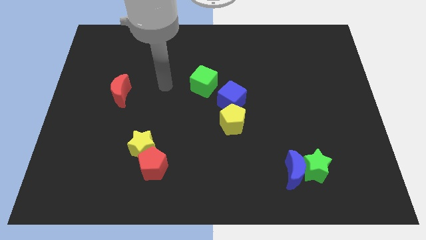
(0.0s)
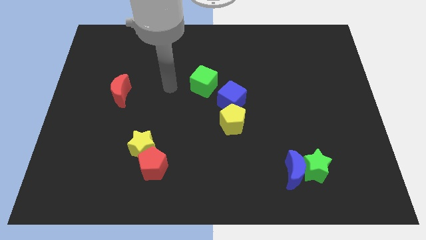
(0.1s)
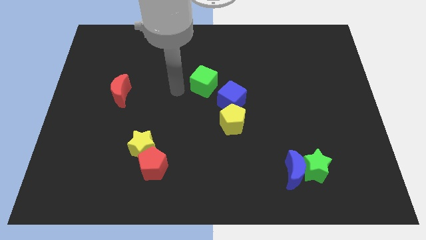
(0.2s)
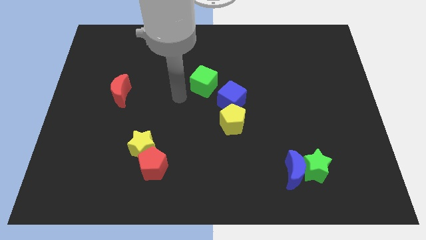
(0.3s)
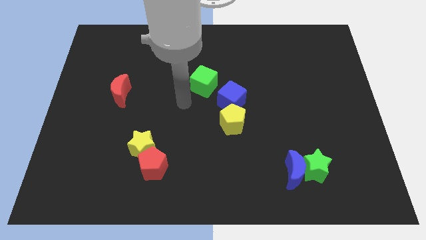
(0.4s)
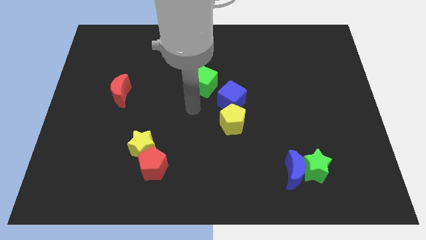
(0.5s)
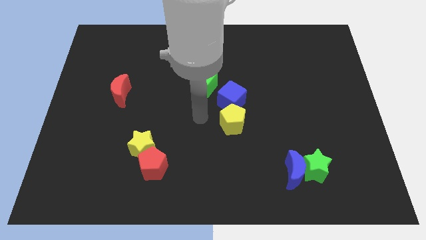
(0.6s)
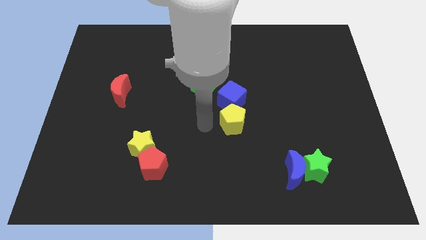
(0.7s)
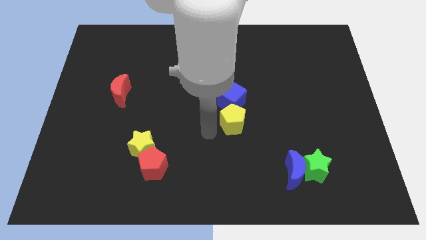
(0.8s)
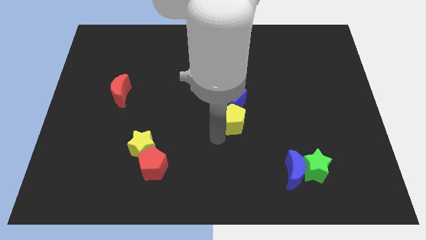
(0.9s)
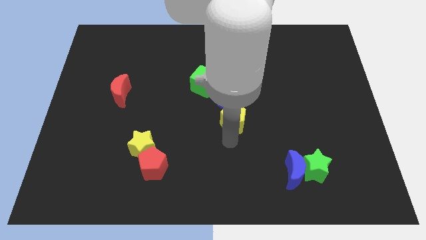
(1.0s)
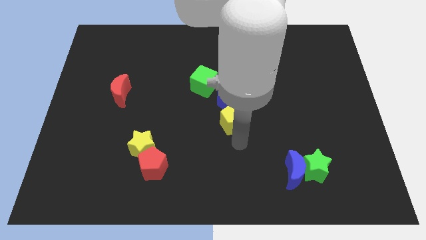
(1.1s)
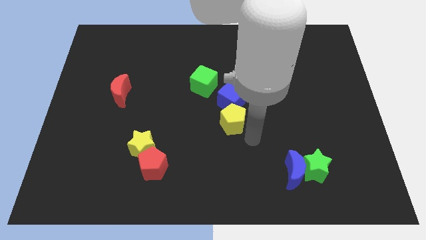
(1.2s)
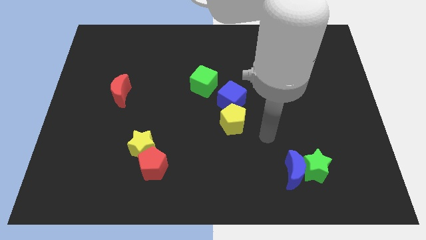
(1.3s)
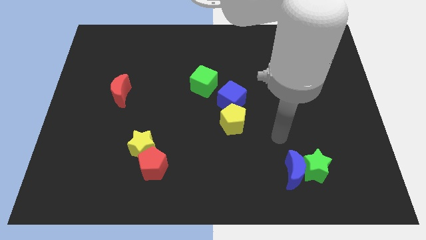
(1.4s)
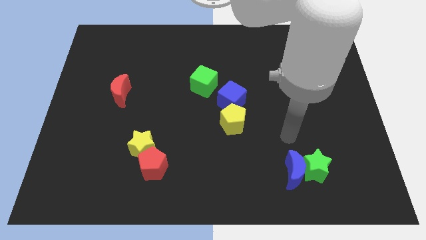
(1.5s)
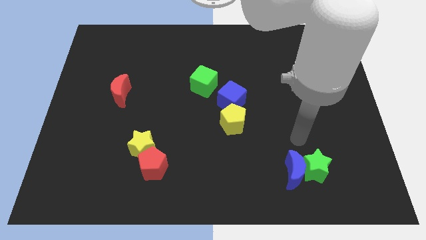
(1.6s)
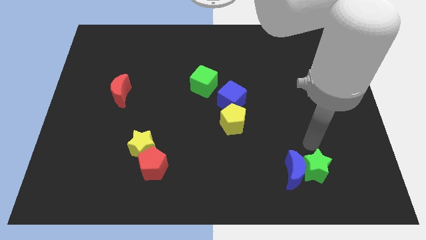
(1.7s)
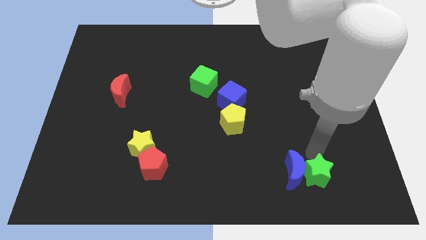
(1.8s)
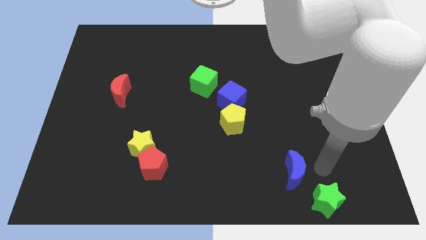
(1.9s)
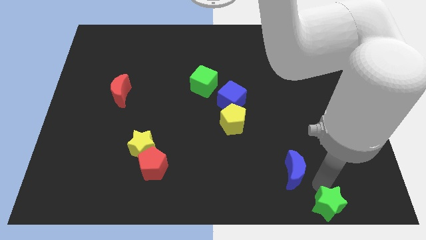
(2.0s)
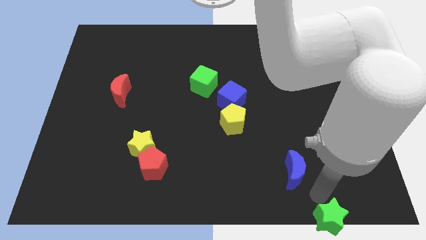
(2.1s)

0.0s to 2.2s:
move the blue moon away from the green star

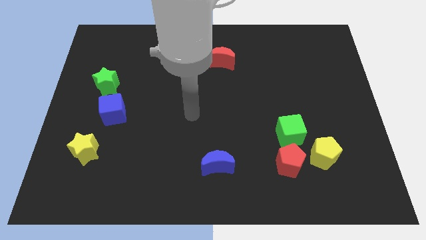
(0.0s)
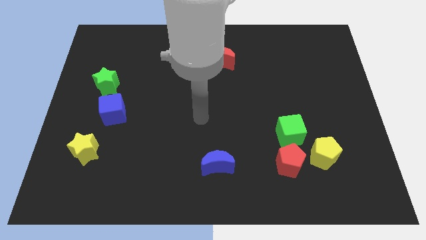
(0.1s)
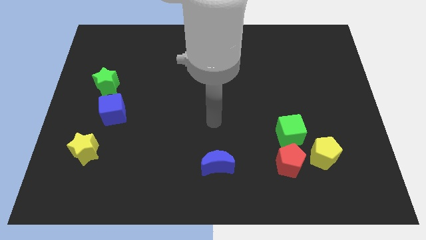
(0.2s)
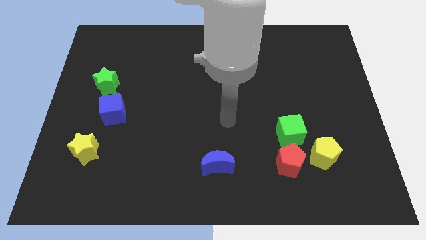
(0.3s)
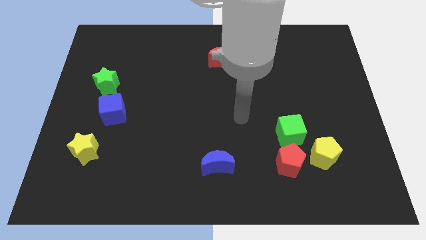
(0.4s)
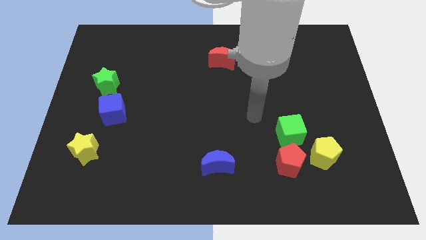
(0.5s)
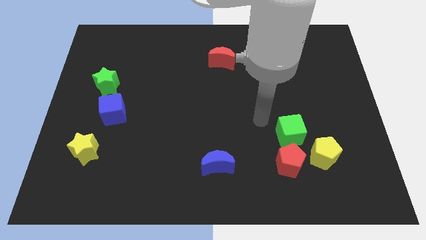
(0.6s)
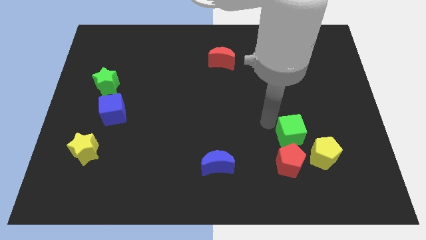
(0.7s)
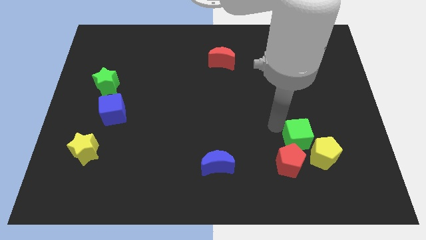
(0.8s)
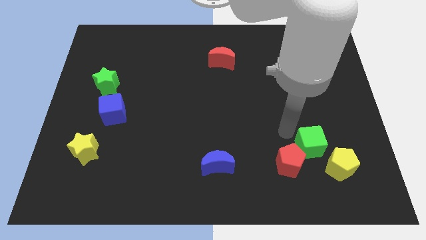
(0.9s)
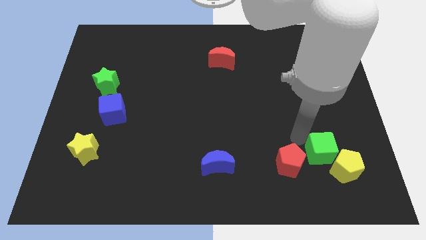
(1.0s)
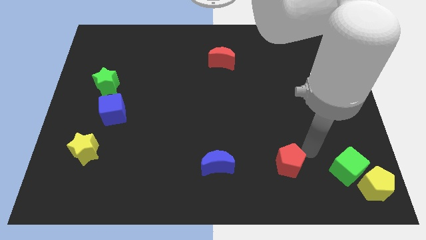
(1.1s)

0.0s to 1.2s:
move the red pentagon away from the green cube and yellow pentagon

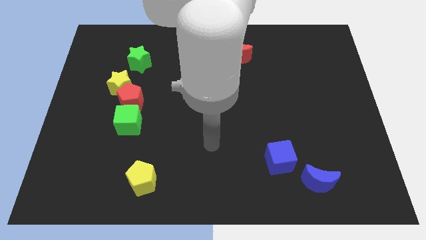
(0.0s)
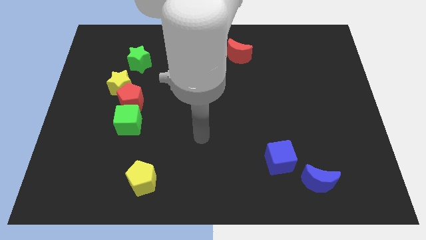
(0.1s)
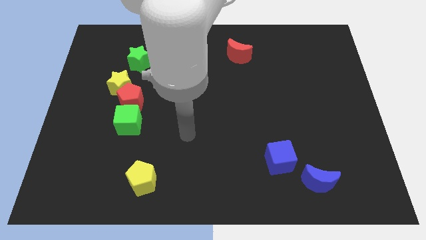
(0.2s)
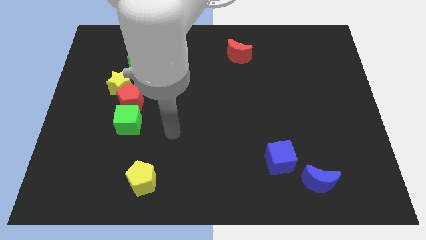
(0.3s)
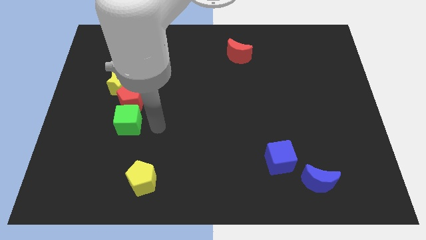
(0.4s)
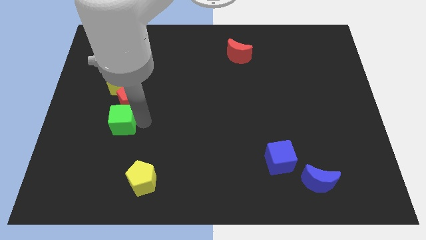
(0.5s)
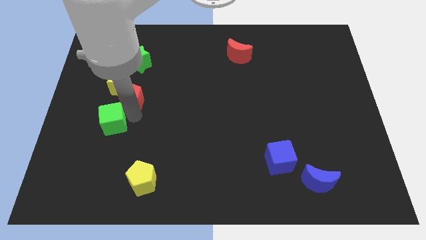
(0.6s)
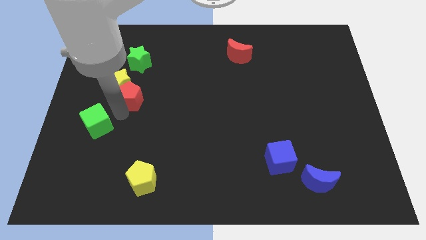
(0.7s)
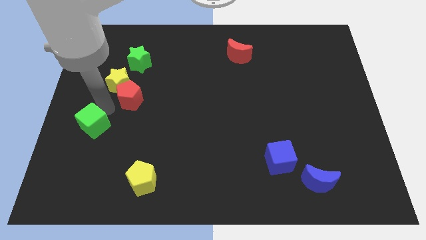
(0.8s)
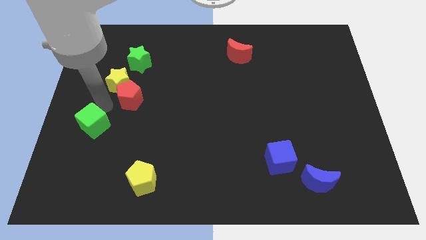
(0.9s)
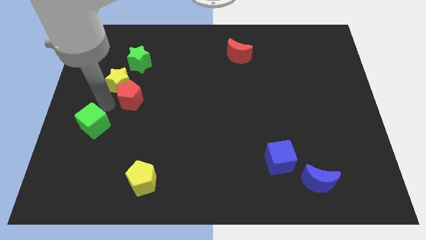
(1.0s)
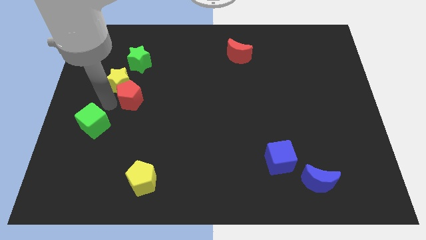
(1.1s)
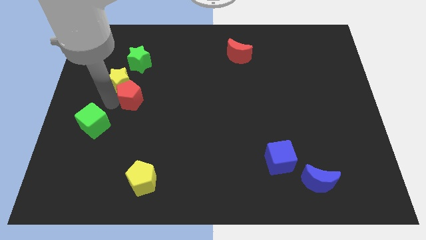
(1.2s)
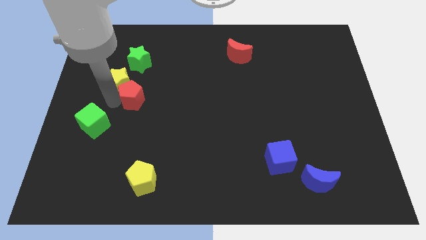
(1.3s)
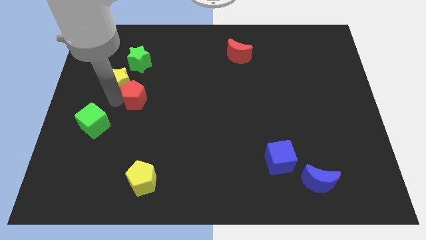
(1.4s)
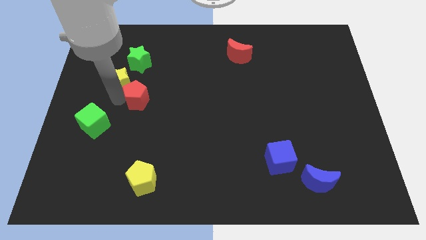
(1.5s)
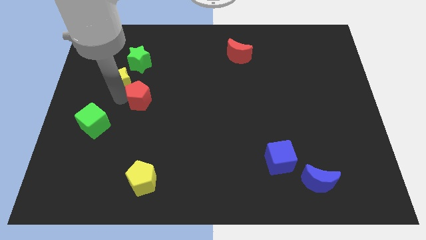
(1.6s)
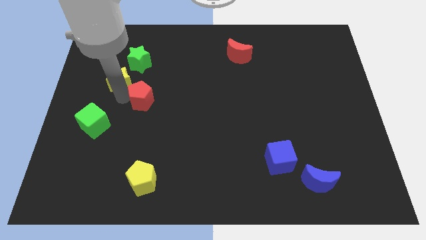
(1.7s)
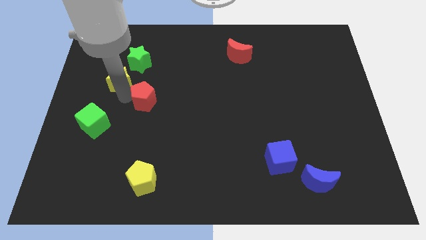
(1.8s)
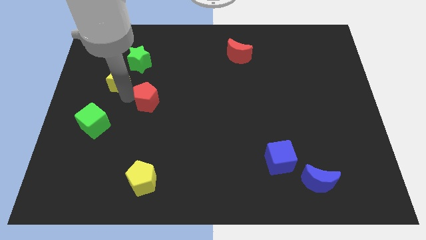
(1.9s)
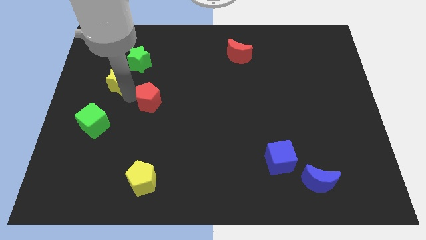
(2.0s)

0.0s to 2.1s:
move the red pentagon away from the yellow star and green cube

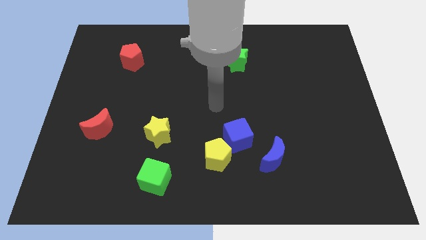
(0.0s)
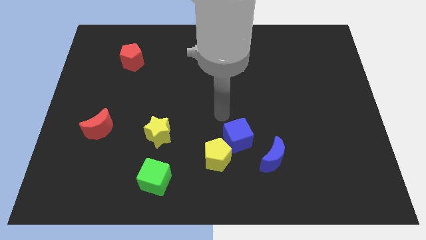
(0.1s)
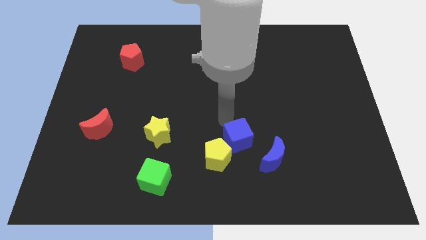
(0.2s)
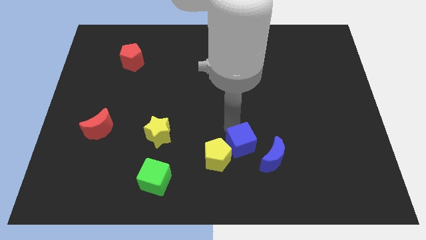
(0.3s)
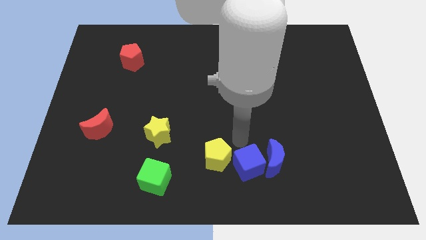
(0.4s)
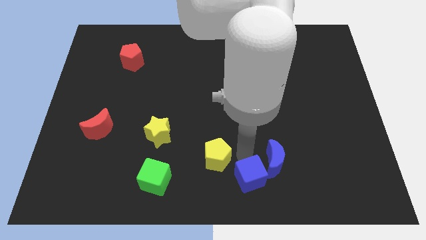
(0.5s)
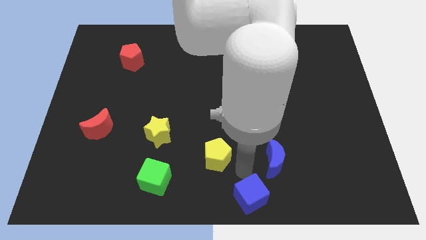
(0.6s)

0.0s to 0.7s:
separate the yellow pentagon from the blue cube

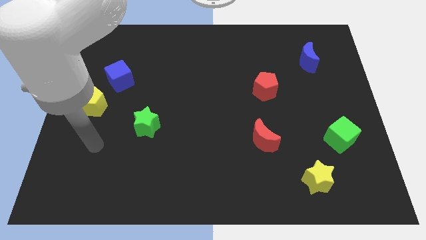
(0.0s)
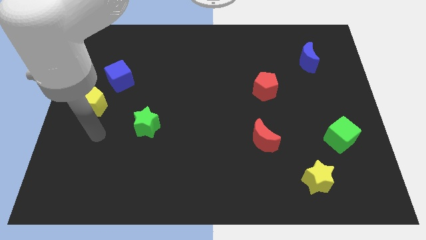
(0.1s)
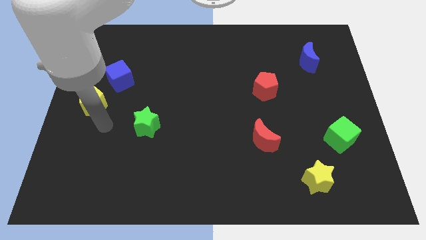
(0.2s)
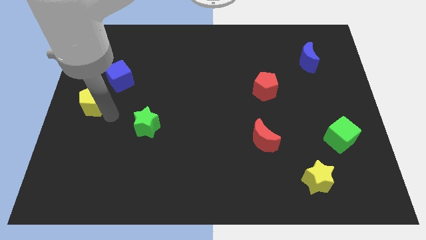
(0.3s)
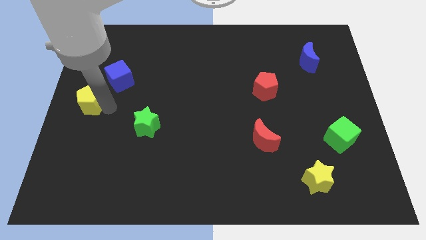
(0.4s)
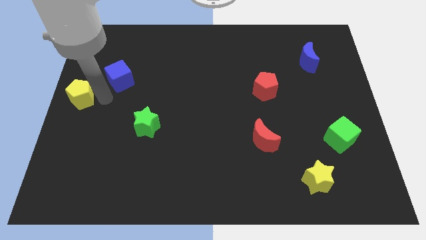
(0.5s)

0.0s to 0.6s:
separate the blue cube from the yellow pentagon

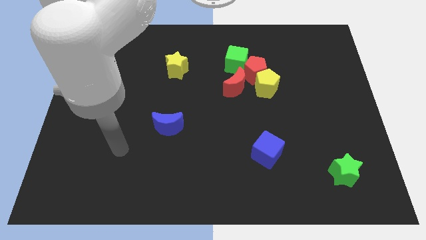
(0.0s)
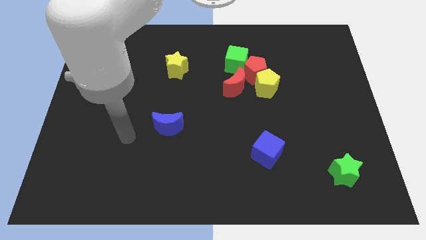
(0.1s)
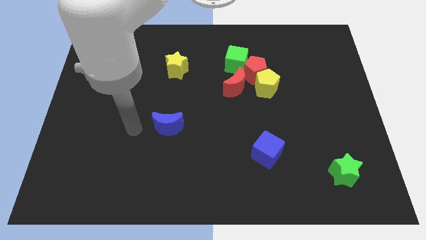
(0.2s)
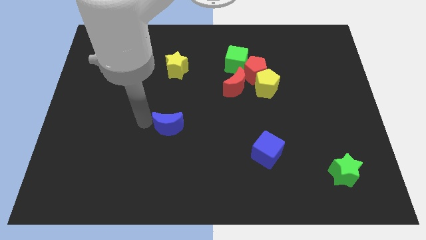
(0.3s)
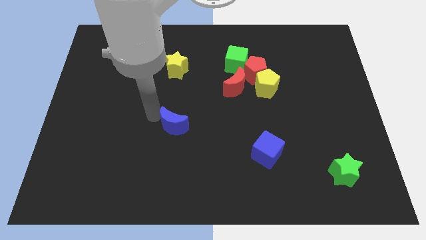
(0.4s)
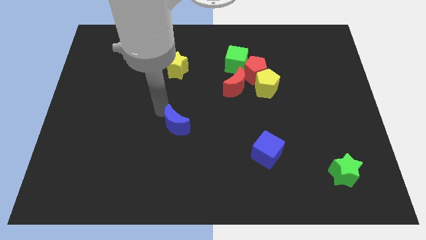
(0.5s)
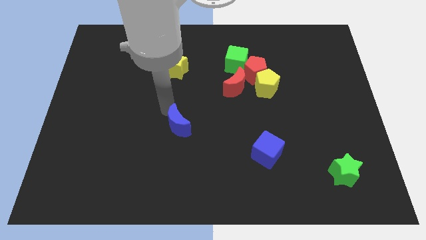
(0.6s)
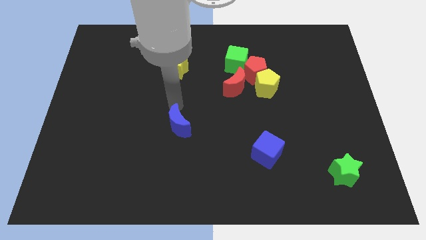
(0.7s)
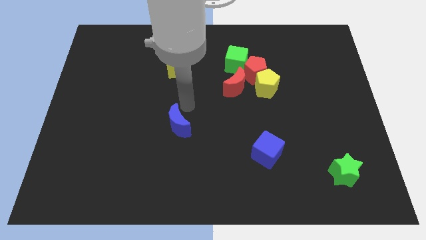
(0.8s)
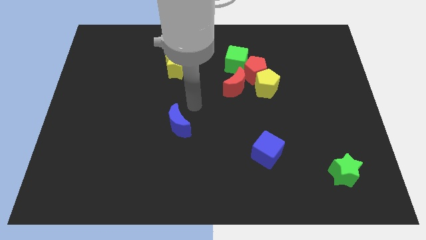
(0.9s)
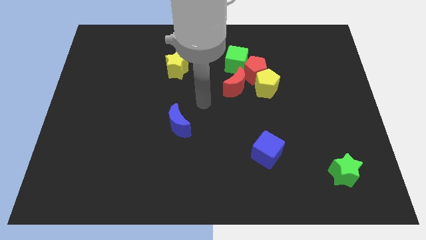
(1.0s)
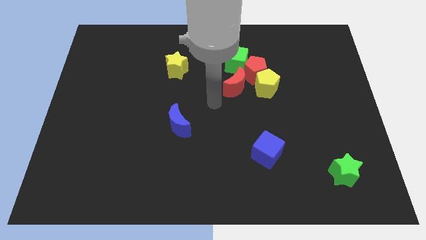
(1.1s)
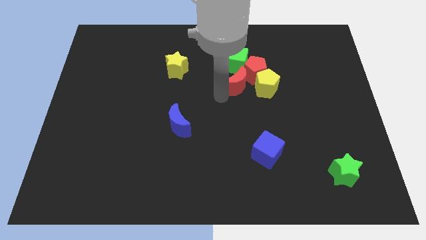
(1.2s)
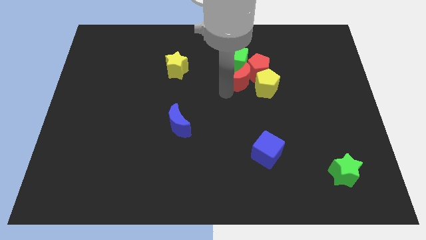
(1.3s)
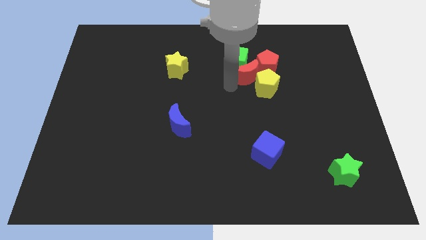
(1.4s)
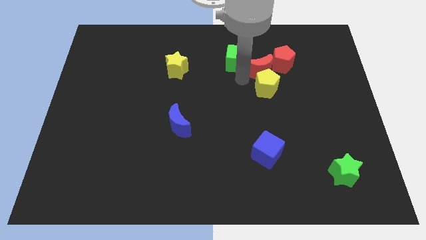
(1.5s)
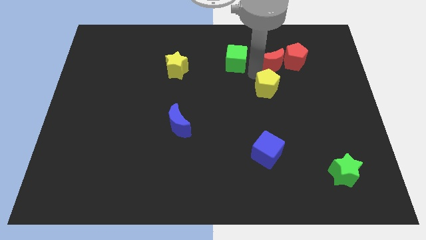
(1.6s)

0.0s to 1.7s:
separate the red pentagon from the yellow pentagon, green cube, and red moon

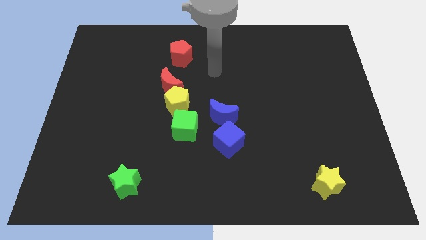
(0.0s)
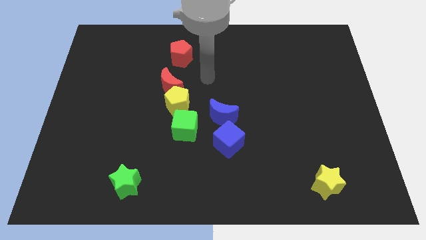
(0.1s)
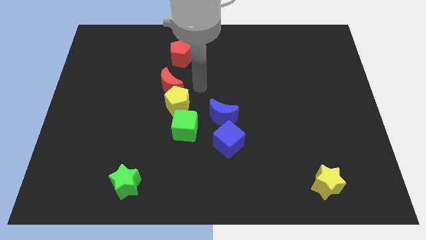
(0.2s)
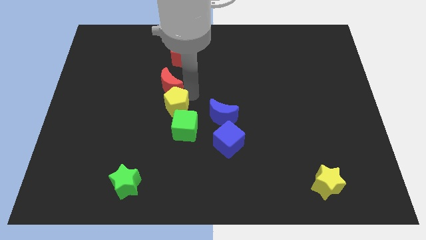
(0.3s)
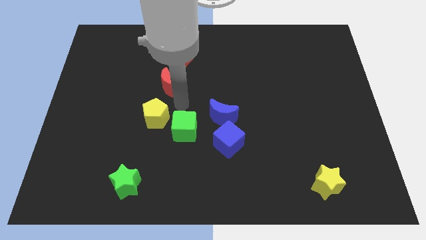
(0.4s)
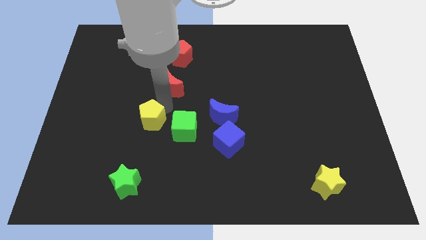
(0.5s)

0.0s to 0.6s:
pull the red moon apart from the yellow pentagon

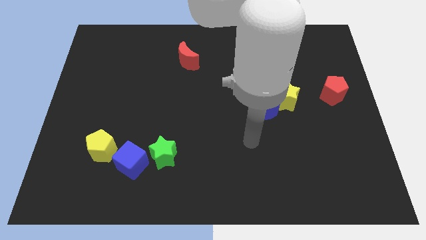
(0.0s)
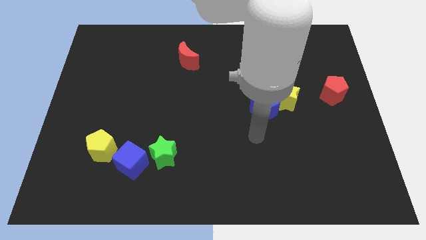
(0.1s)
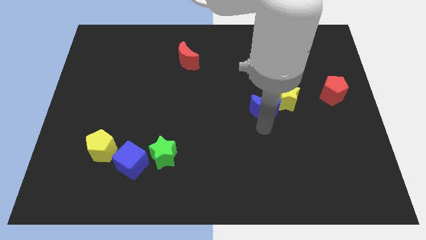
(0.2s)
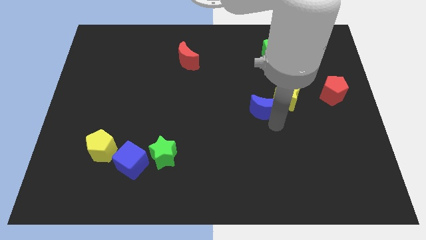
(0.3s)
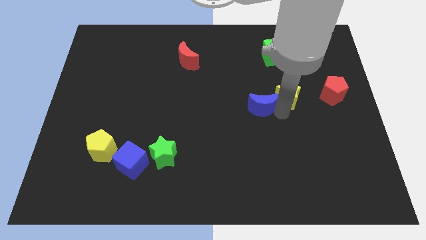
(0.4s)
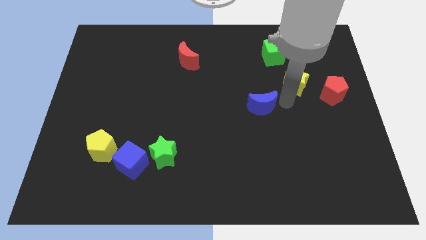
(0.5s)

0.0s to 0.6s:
move the blue moon away from the yellow star
